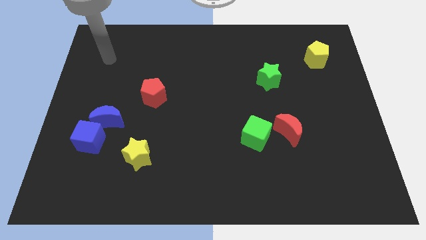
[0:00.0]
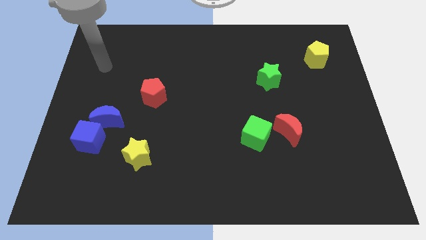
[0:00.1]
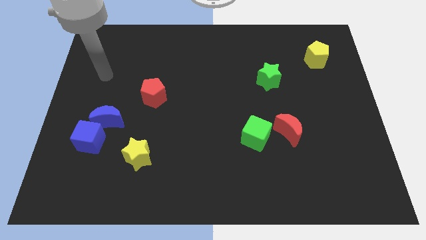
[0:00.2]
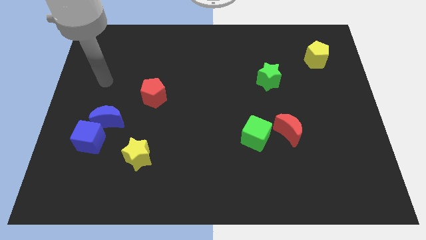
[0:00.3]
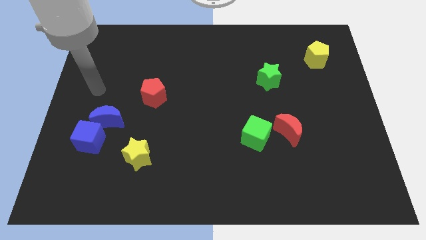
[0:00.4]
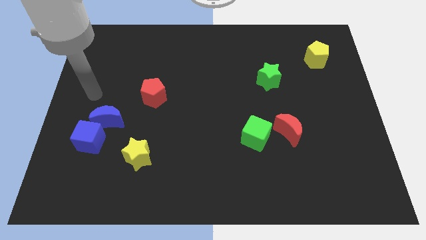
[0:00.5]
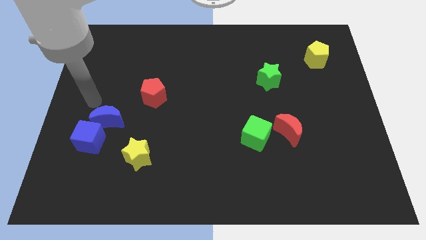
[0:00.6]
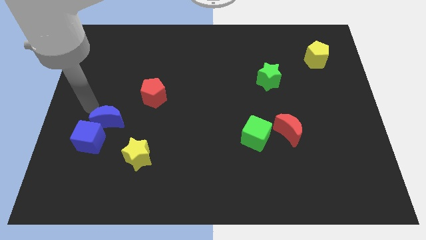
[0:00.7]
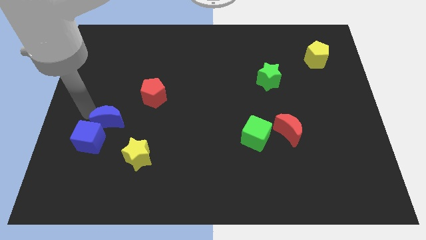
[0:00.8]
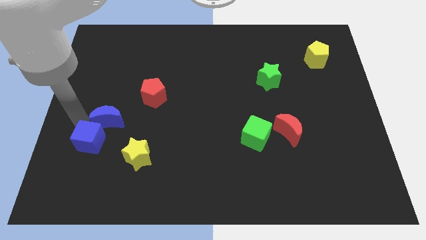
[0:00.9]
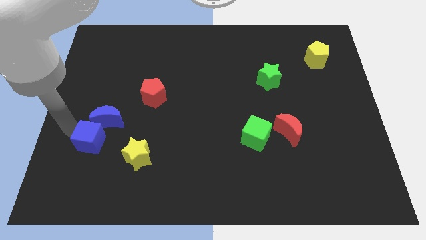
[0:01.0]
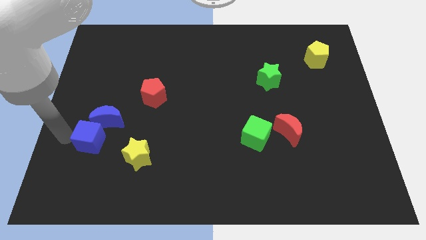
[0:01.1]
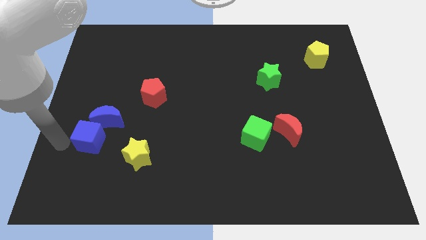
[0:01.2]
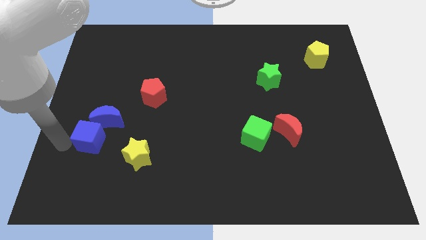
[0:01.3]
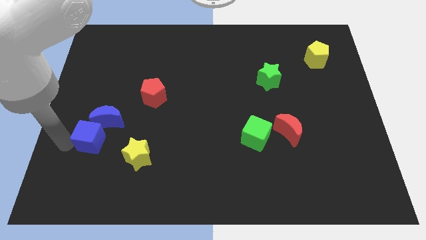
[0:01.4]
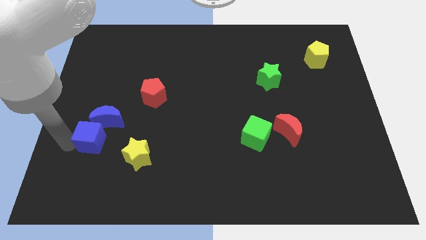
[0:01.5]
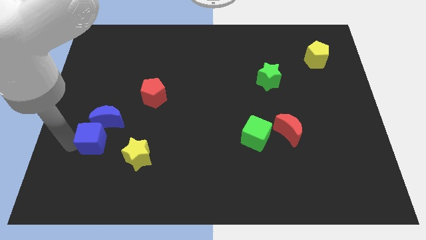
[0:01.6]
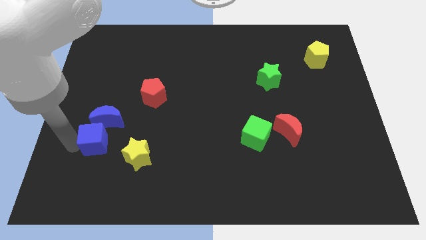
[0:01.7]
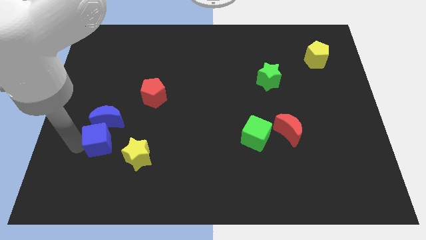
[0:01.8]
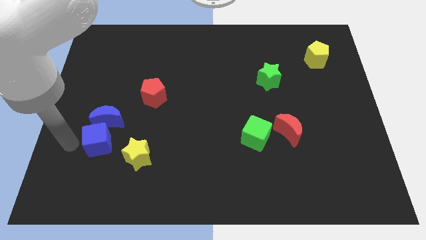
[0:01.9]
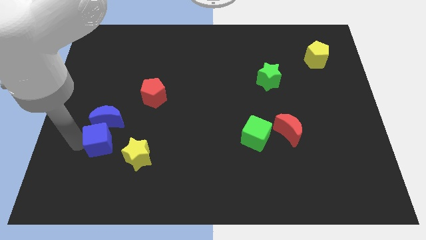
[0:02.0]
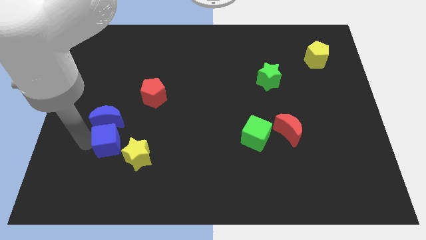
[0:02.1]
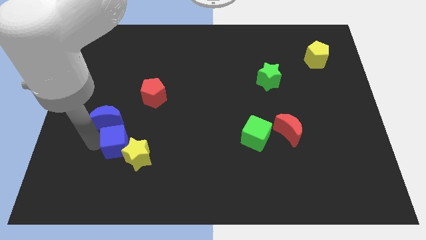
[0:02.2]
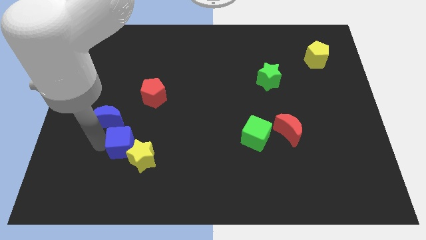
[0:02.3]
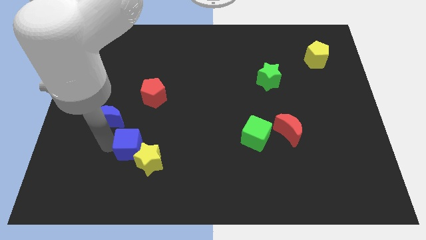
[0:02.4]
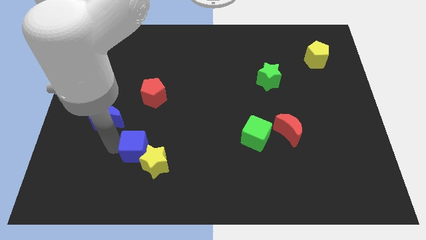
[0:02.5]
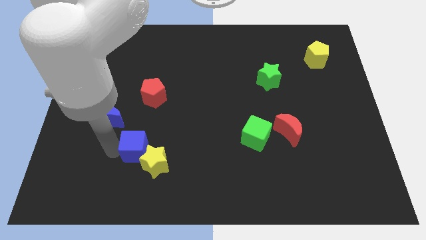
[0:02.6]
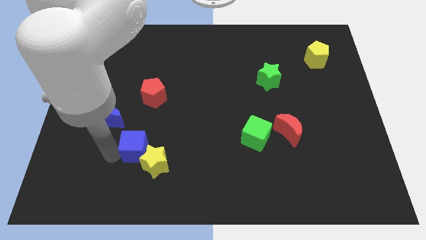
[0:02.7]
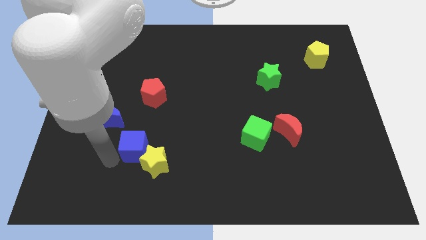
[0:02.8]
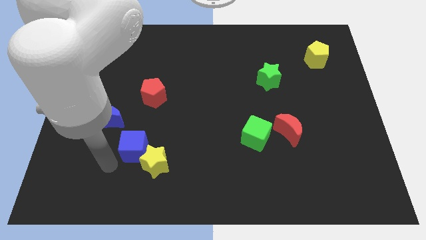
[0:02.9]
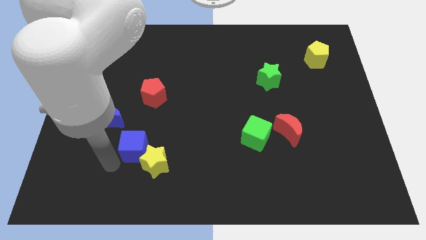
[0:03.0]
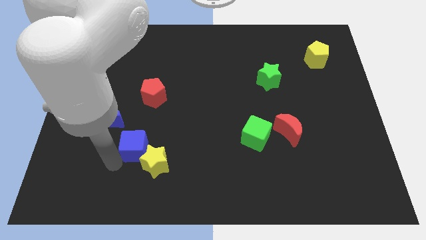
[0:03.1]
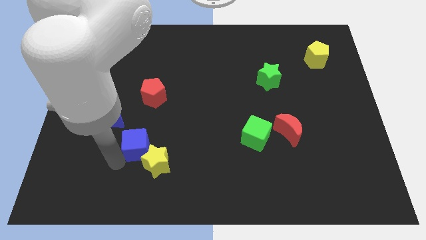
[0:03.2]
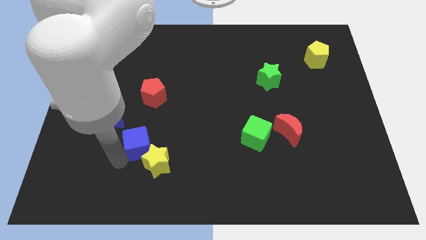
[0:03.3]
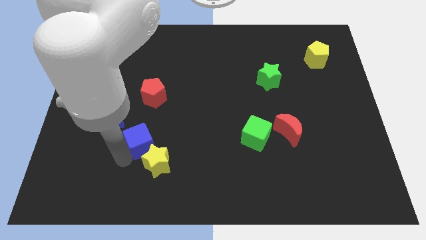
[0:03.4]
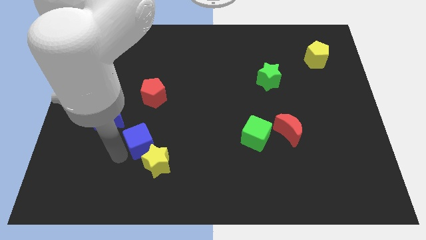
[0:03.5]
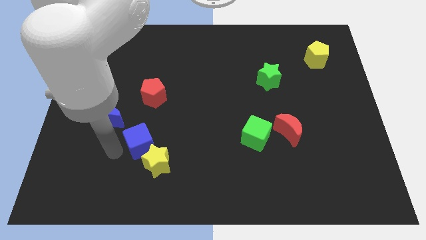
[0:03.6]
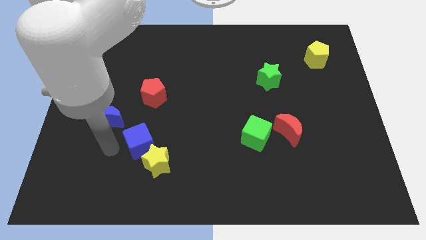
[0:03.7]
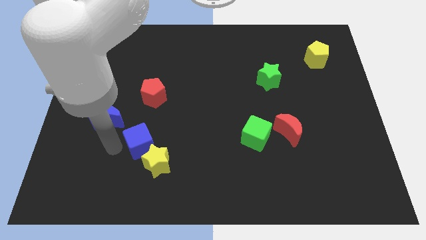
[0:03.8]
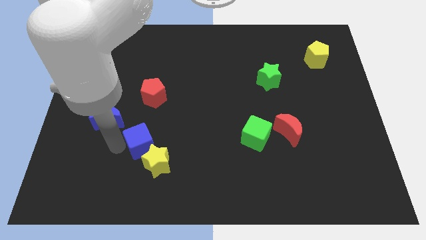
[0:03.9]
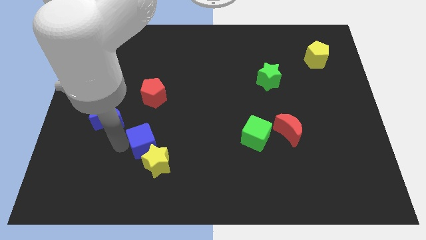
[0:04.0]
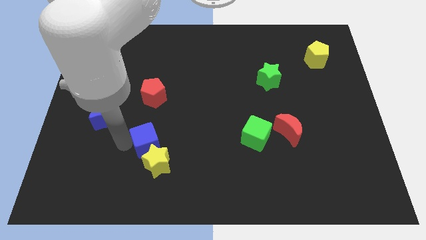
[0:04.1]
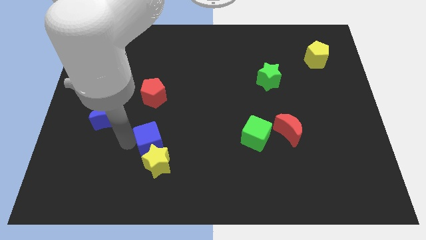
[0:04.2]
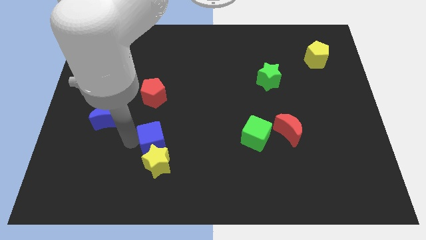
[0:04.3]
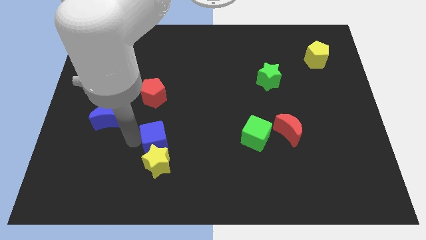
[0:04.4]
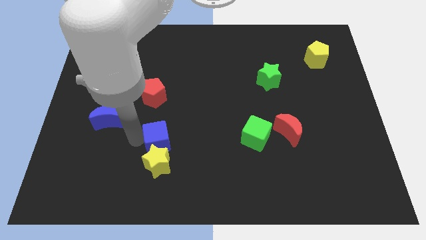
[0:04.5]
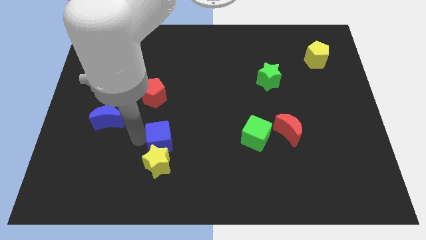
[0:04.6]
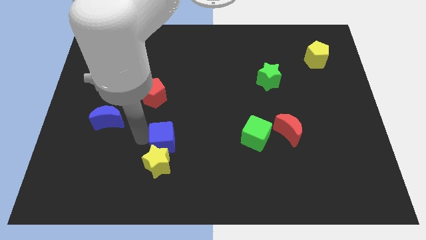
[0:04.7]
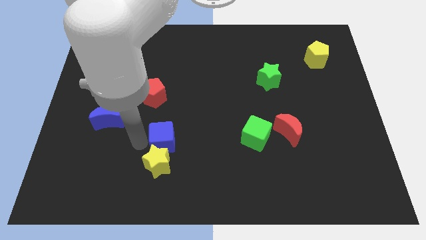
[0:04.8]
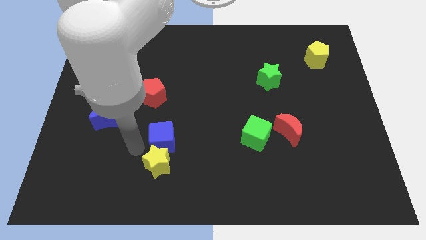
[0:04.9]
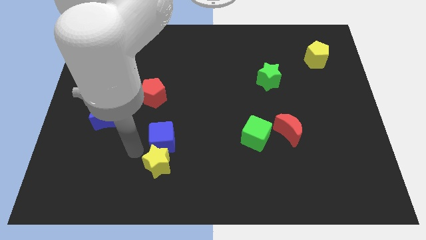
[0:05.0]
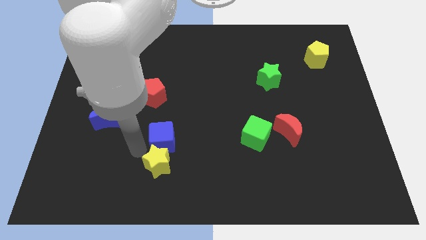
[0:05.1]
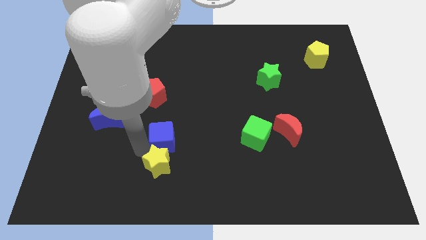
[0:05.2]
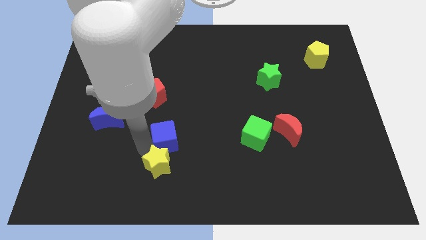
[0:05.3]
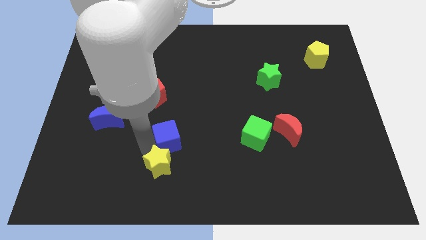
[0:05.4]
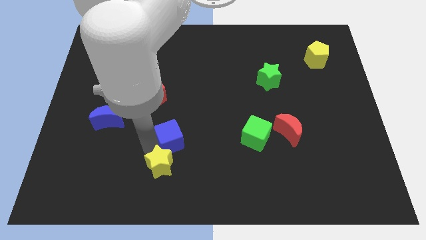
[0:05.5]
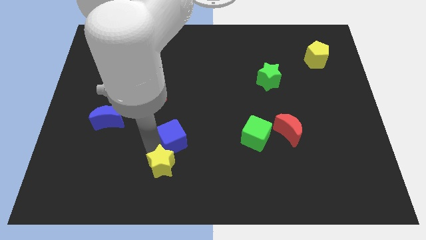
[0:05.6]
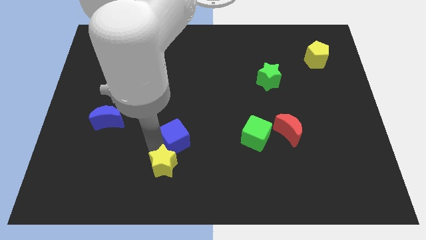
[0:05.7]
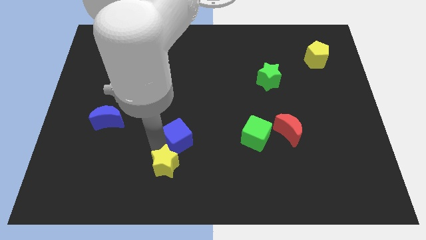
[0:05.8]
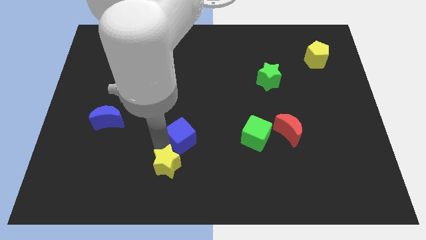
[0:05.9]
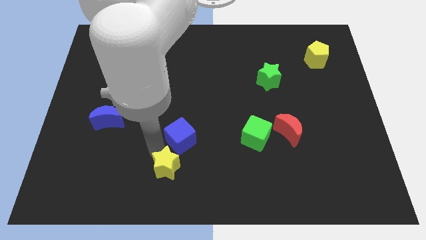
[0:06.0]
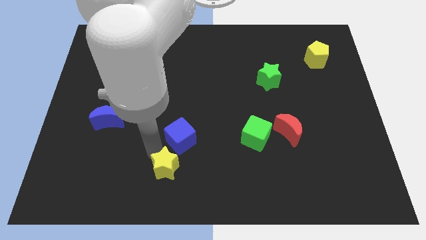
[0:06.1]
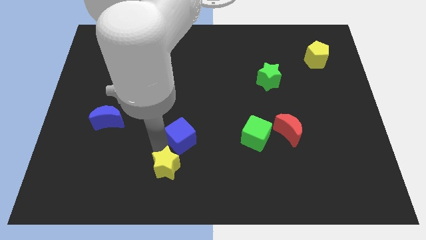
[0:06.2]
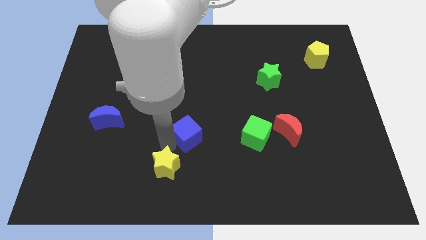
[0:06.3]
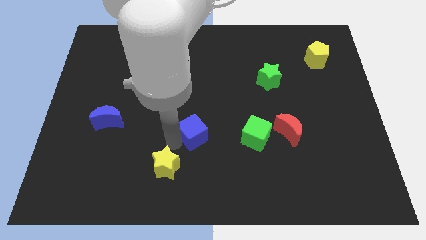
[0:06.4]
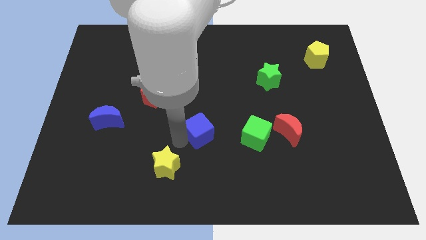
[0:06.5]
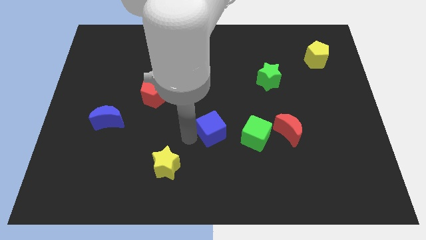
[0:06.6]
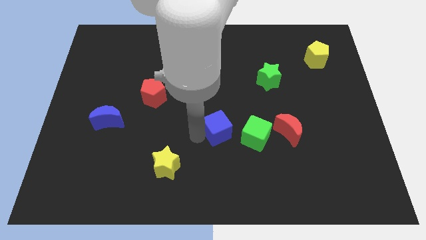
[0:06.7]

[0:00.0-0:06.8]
put the blue cube to the top left of the green cube

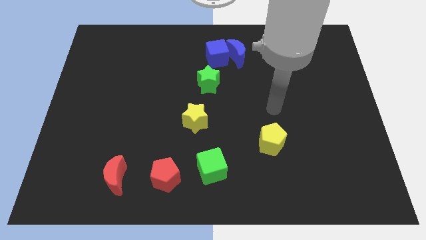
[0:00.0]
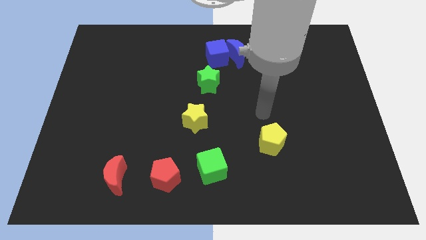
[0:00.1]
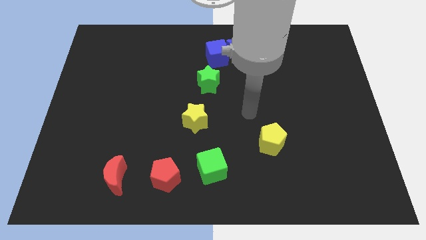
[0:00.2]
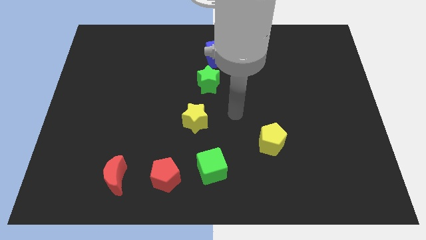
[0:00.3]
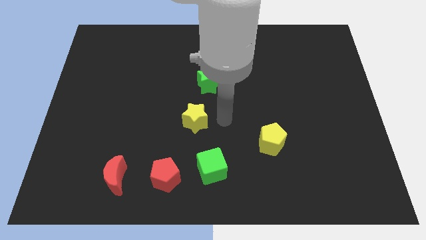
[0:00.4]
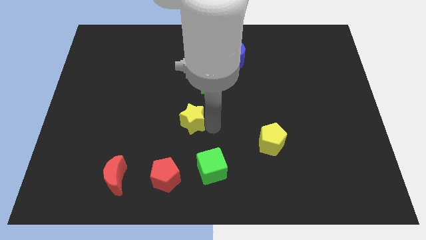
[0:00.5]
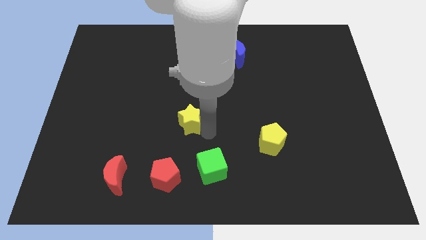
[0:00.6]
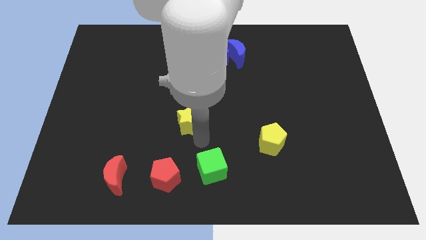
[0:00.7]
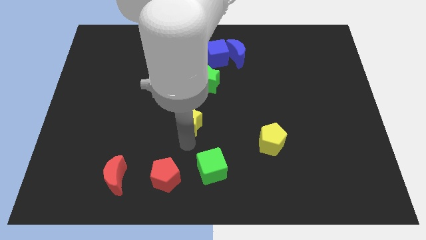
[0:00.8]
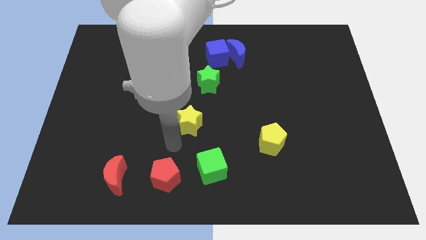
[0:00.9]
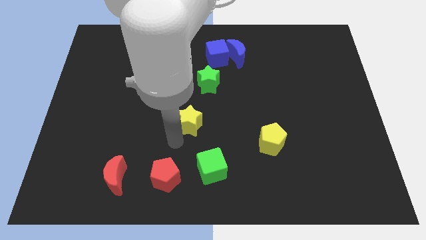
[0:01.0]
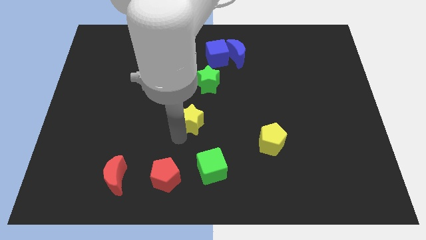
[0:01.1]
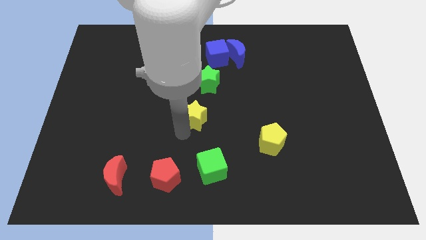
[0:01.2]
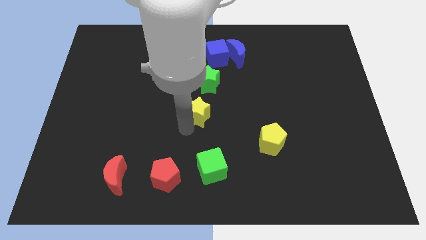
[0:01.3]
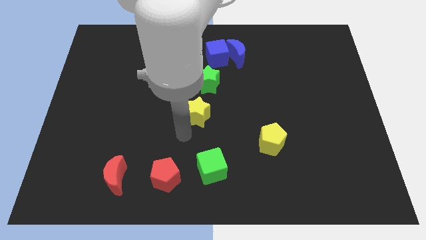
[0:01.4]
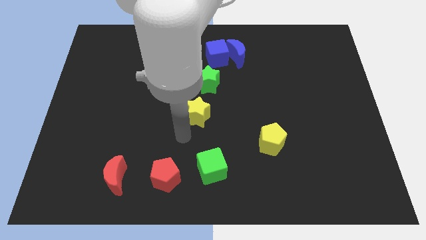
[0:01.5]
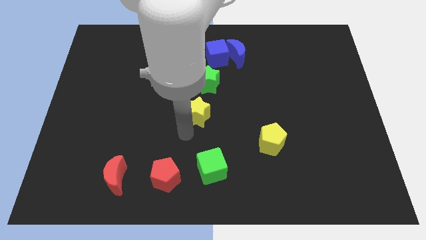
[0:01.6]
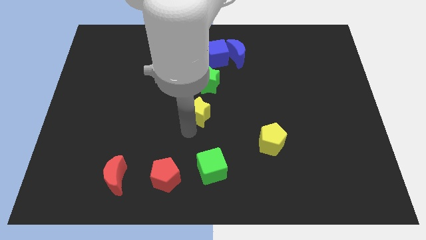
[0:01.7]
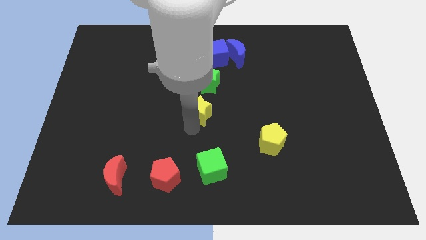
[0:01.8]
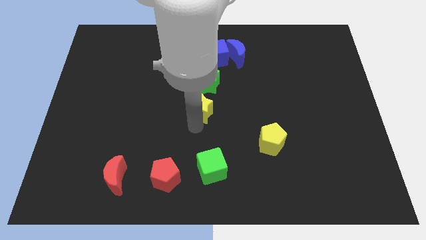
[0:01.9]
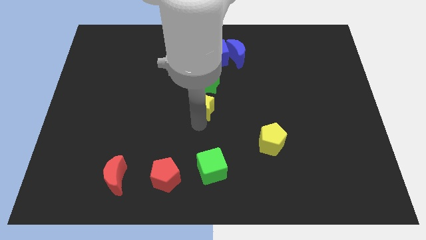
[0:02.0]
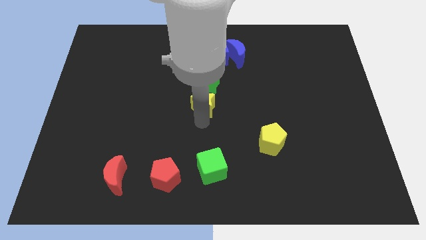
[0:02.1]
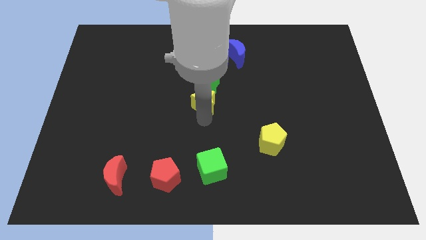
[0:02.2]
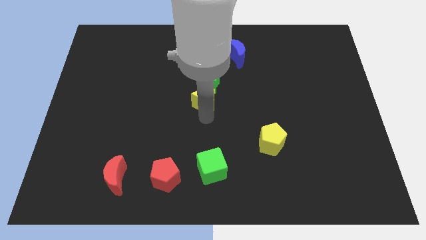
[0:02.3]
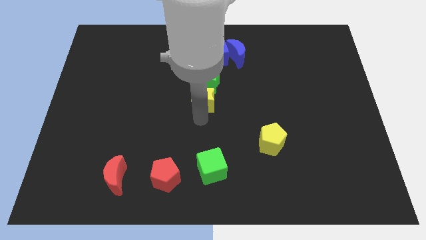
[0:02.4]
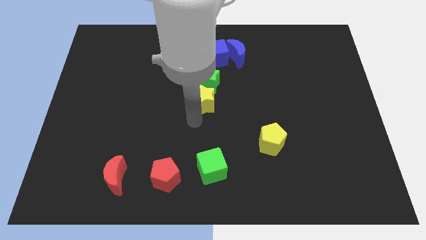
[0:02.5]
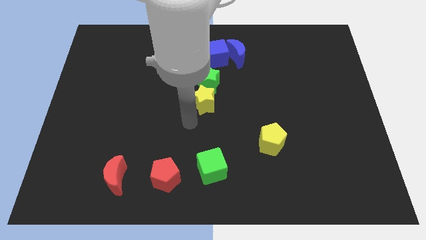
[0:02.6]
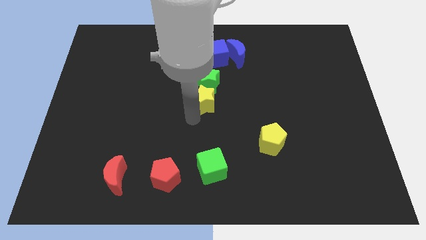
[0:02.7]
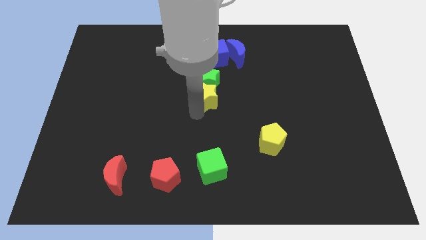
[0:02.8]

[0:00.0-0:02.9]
slide the yellow star to the bottom of the blue cube
